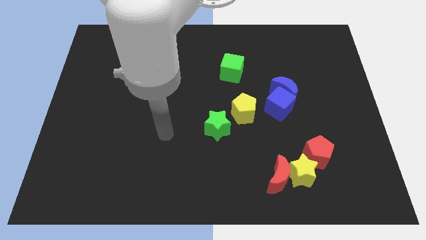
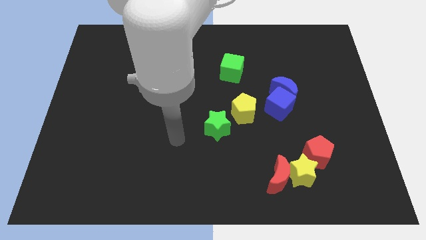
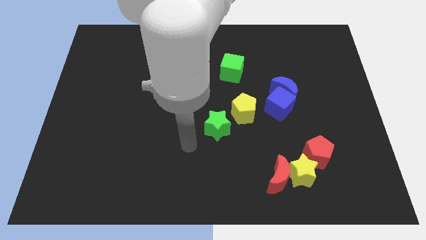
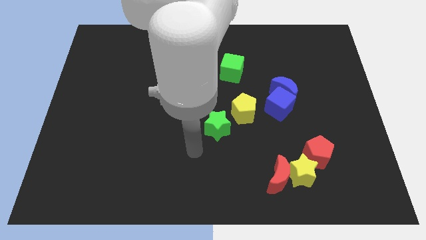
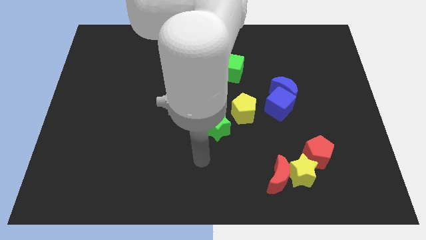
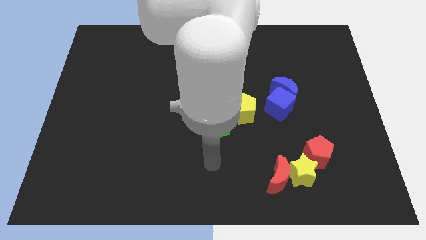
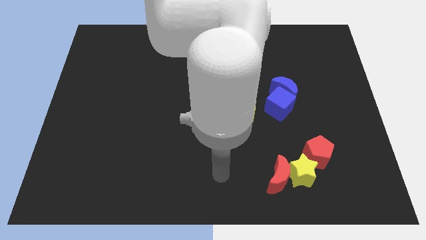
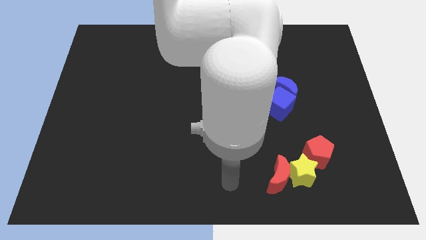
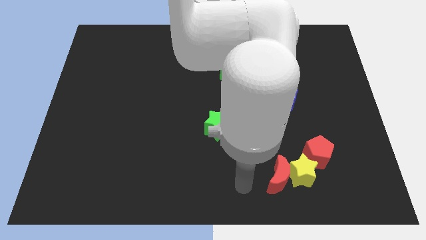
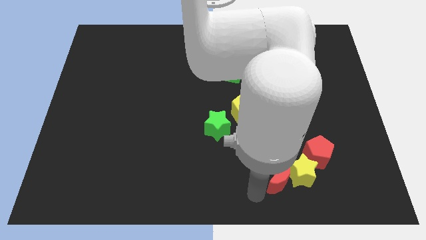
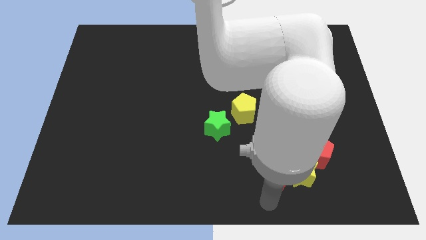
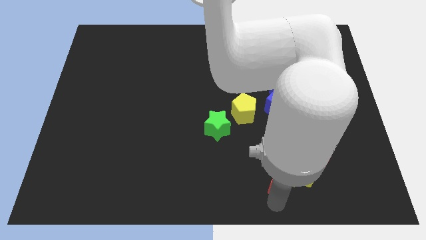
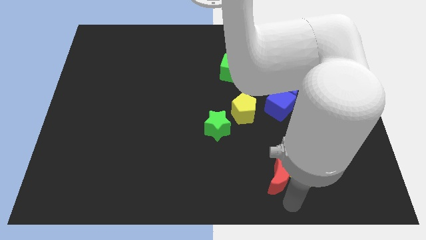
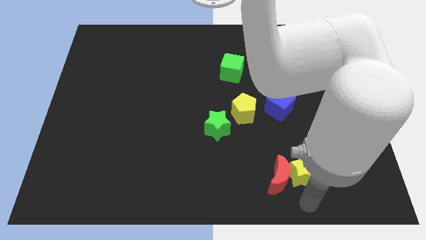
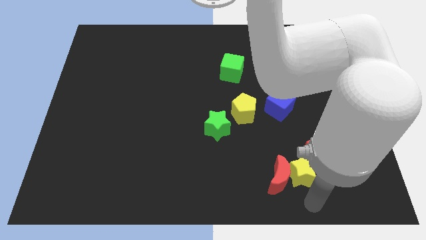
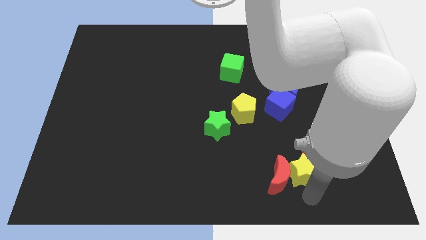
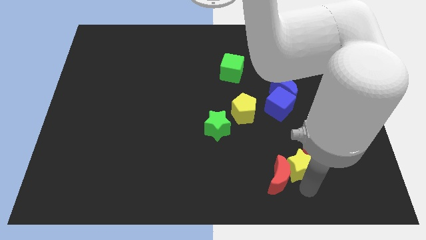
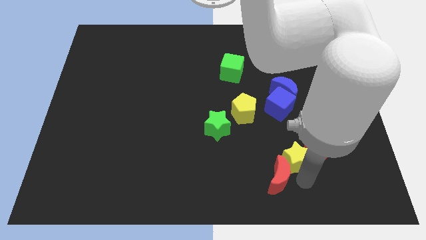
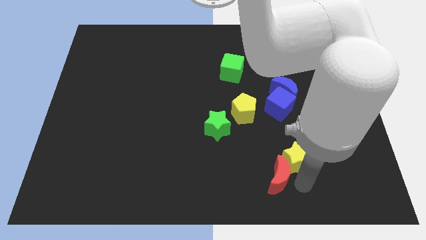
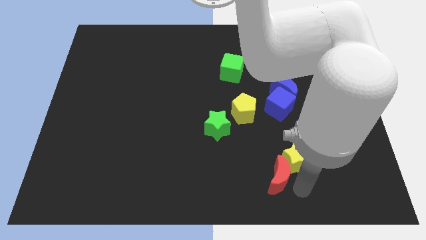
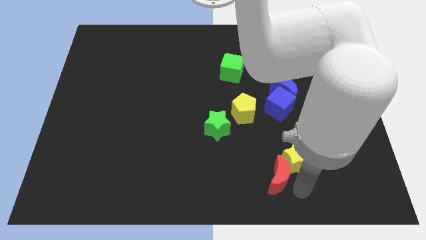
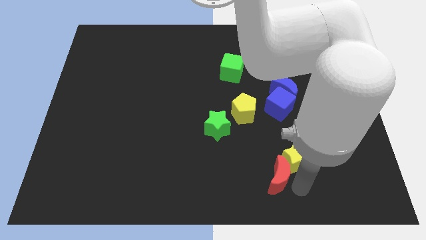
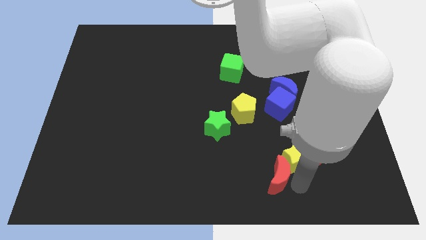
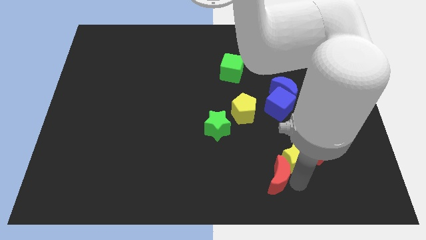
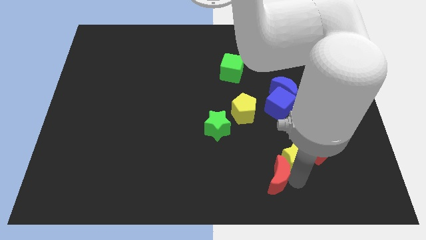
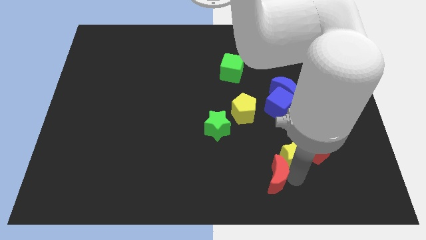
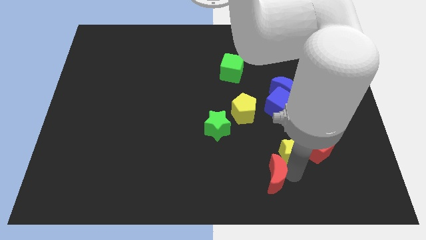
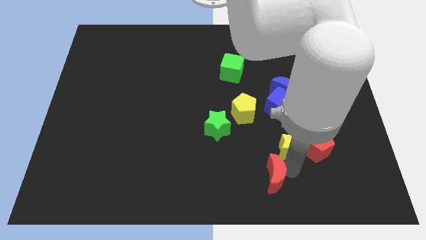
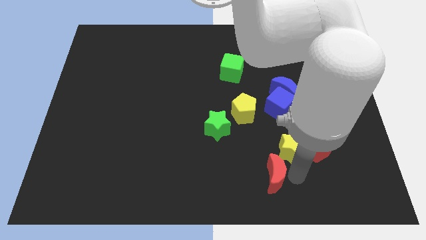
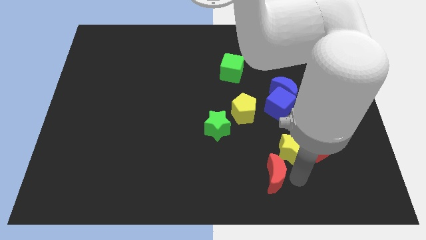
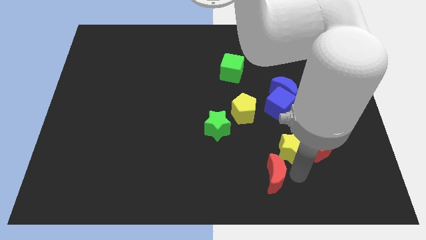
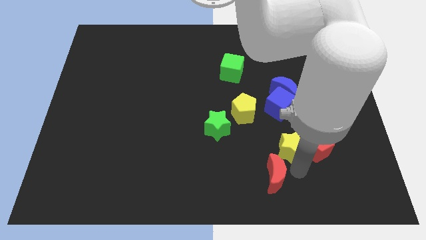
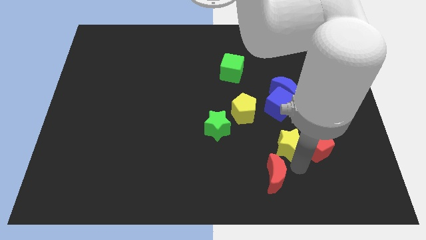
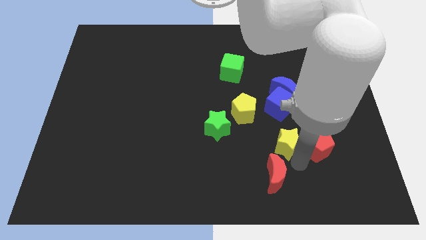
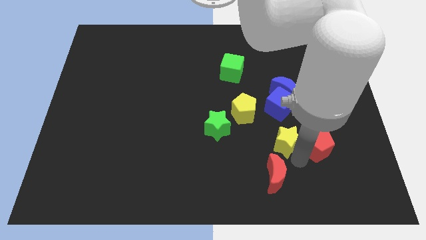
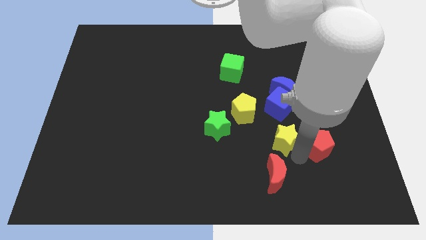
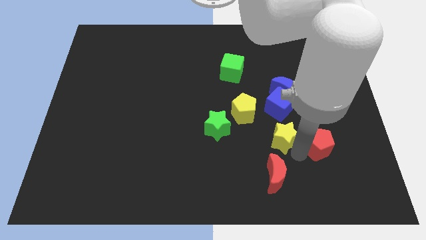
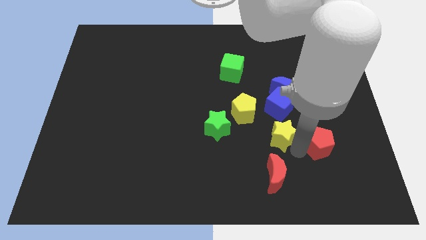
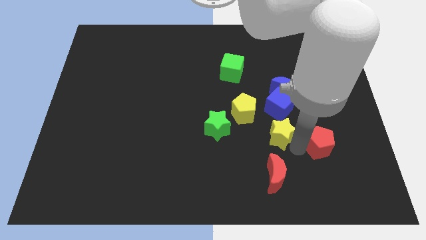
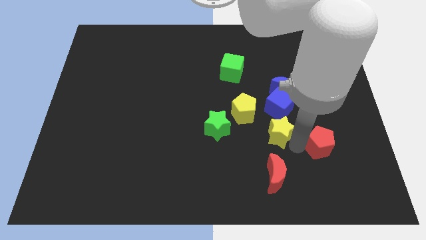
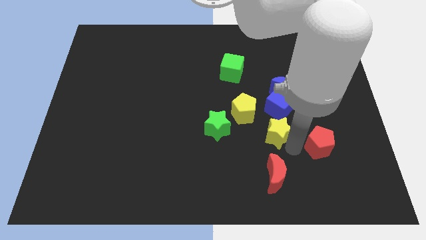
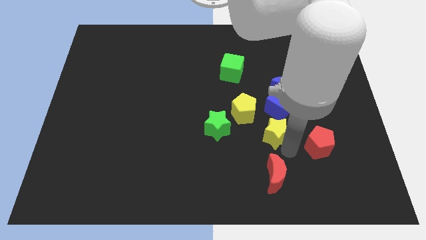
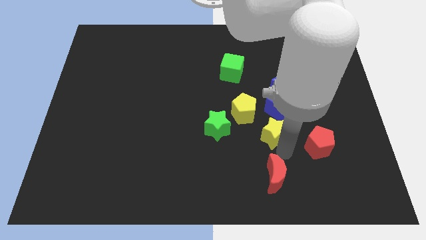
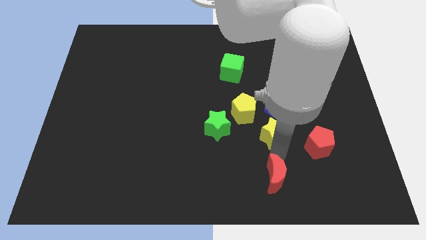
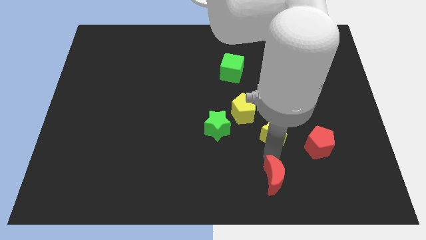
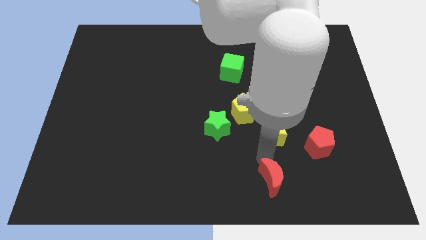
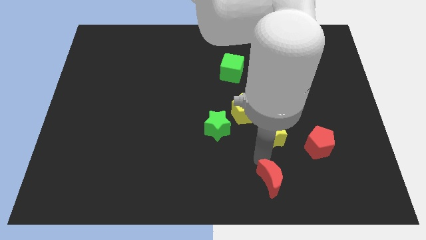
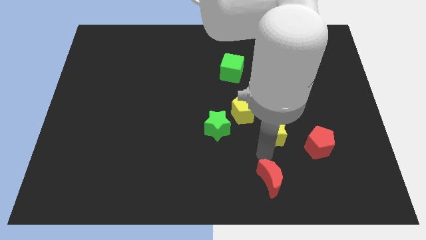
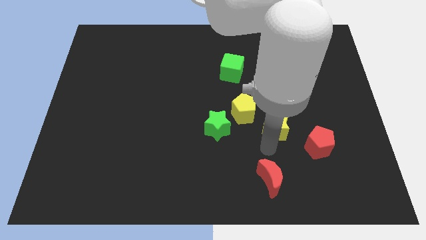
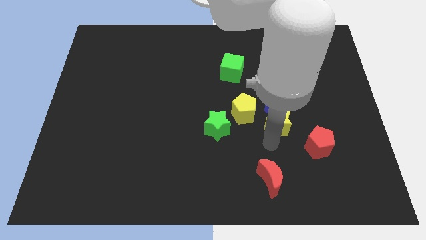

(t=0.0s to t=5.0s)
slide the yellow star close to the blue cube

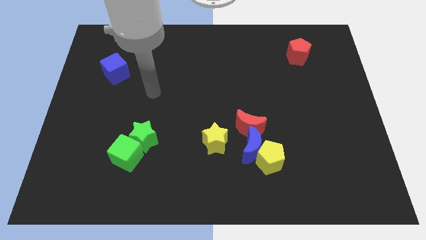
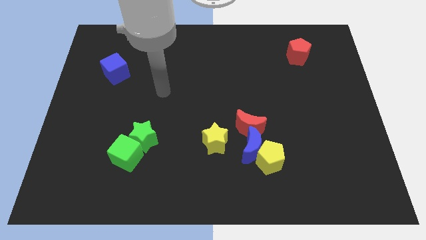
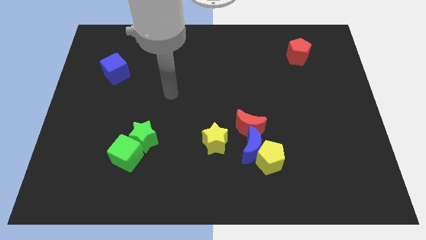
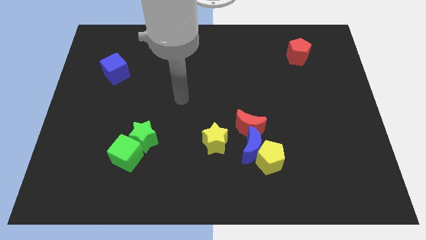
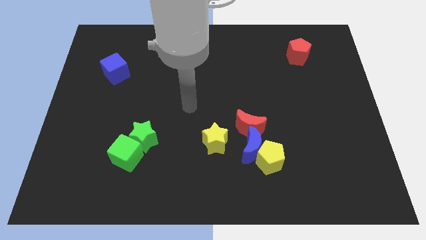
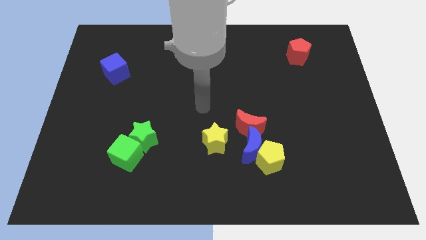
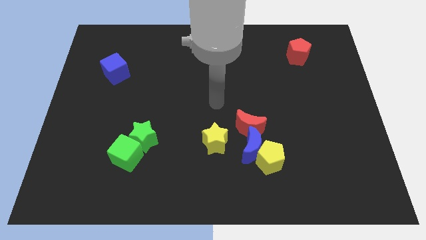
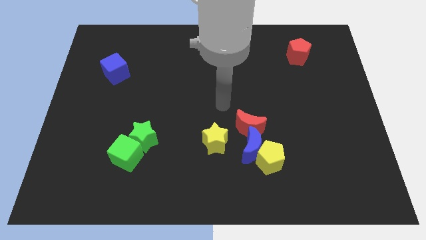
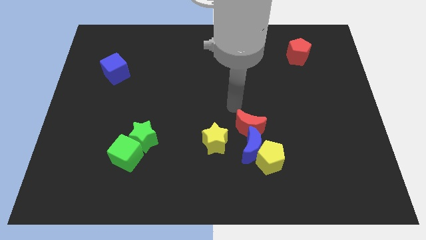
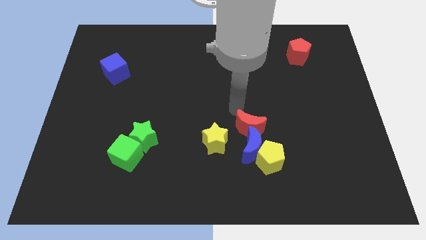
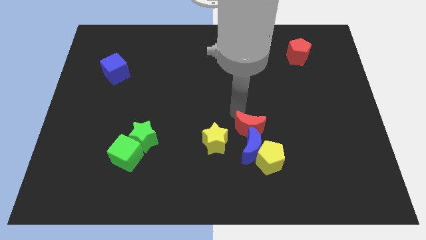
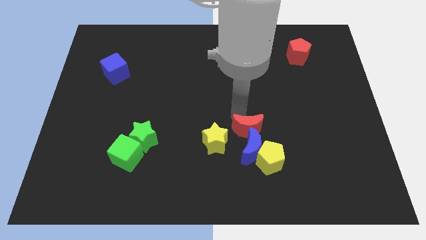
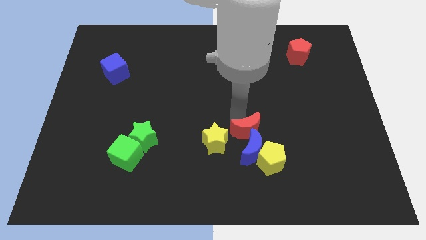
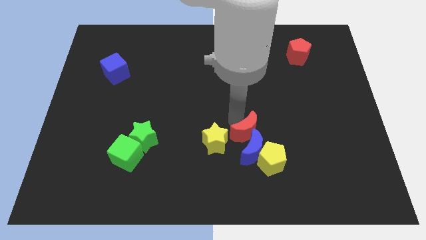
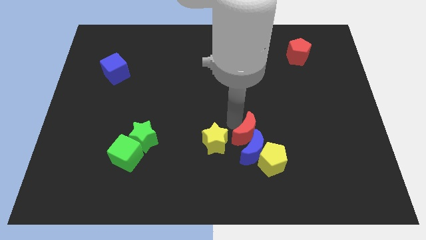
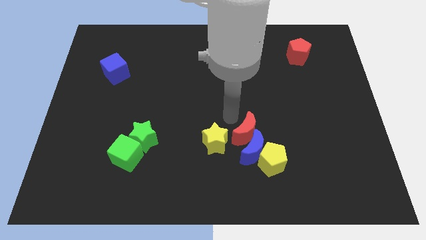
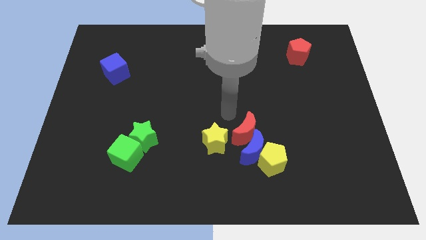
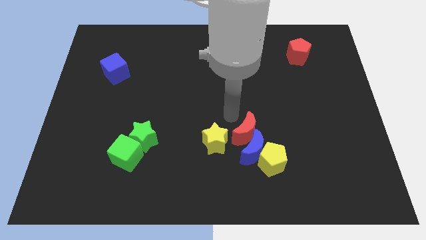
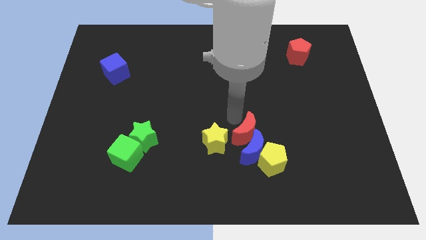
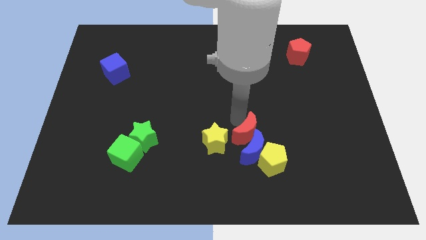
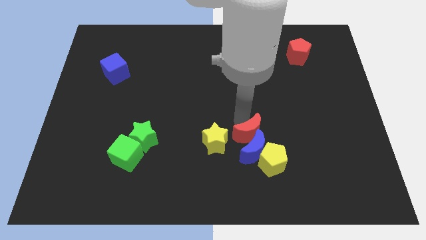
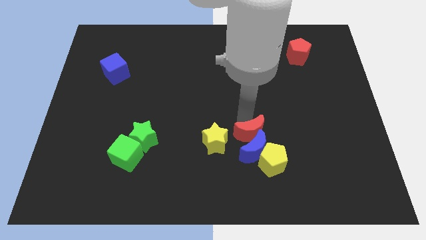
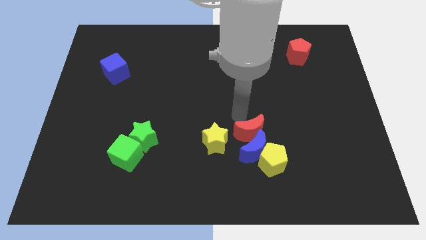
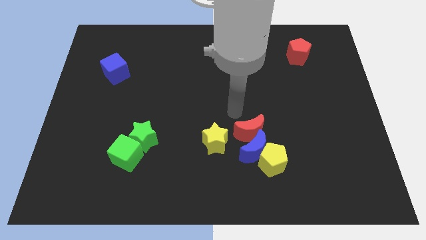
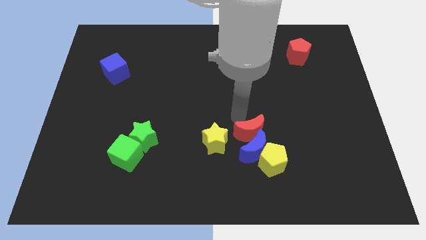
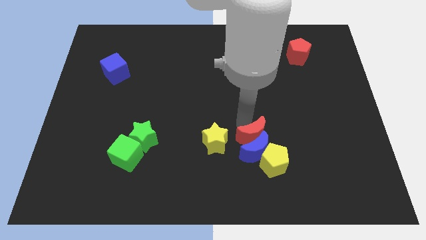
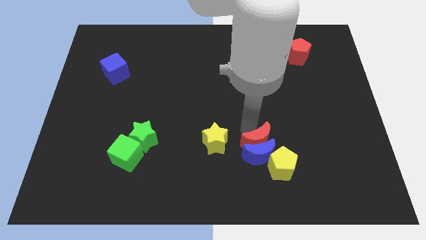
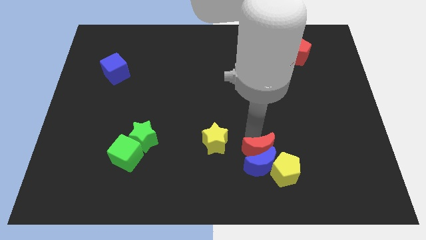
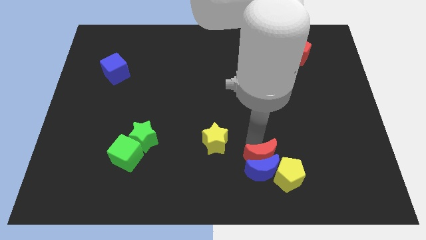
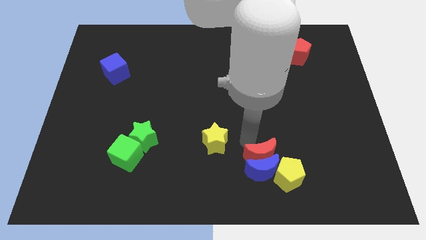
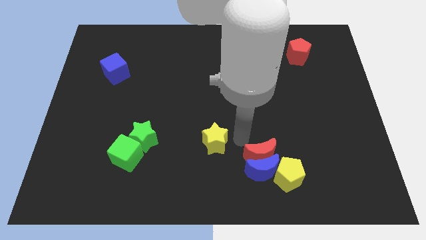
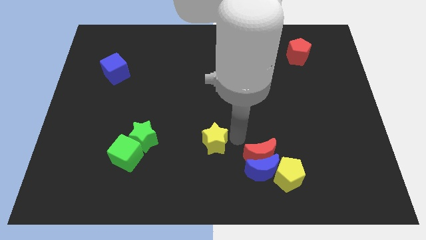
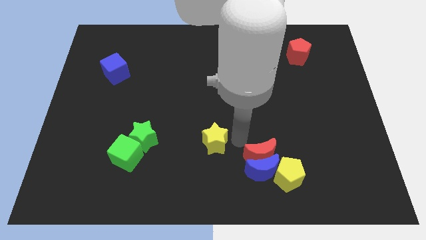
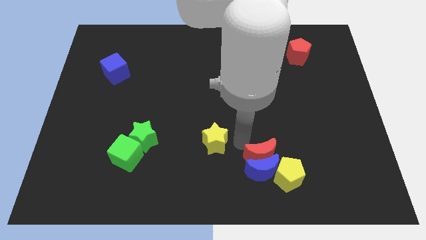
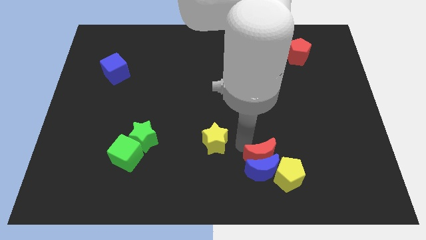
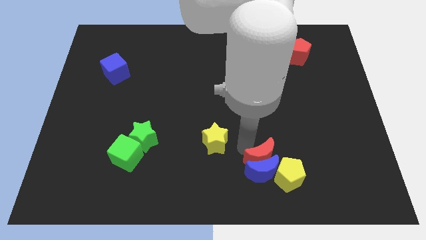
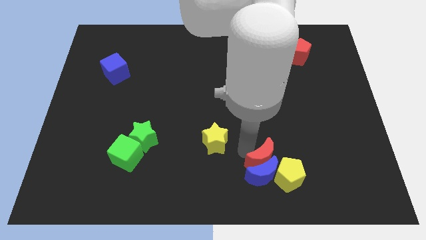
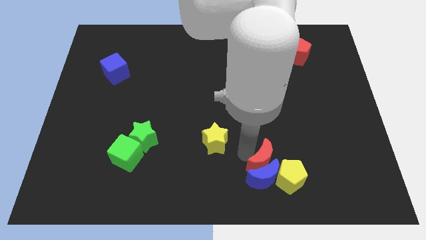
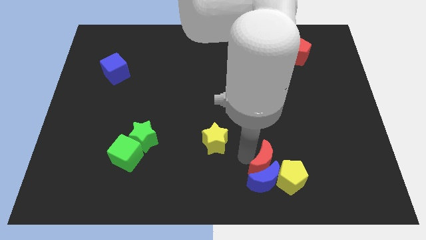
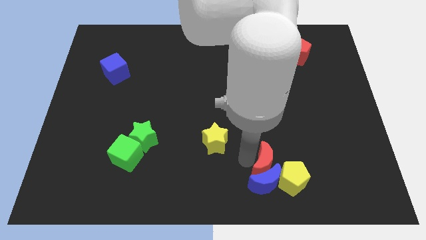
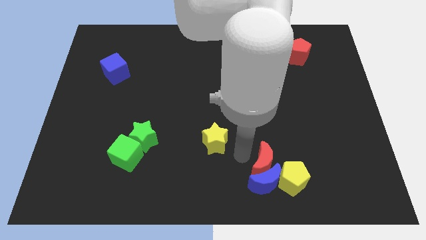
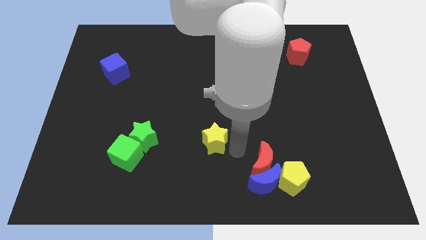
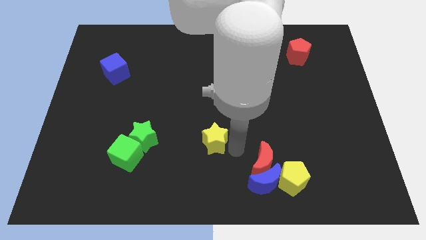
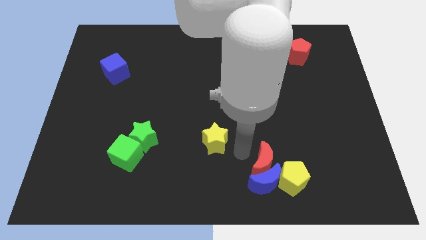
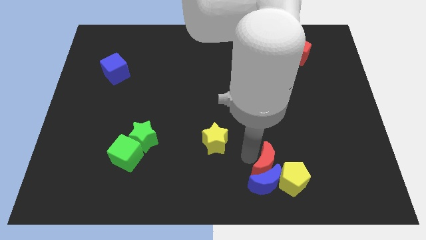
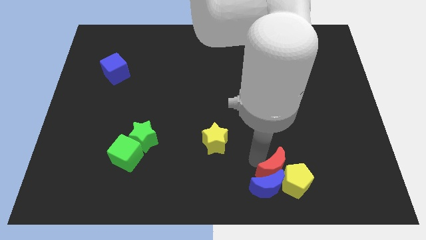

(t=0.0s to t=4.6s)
slide the red moon next to the yellow pentagon
